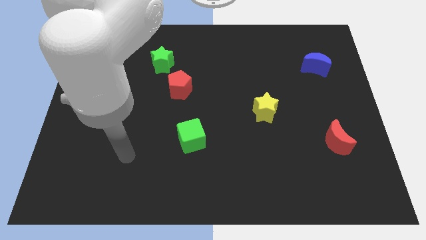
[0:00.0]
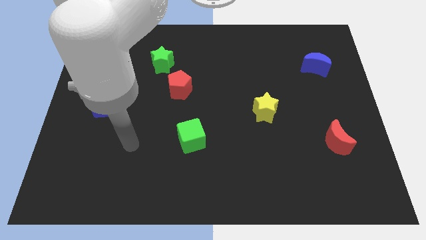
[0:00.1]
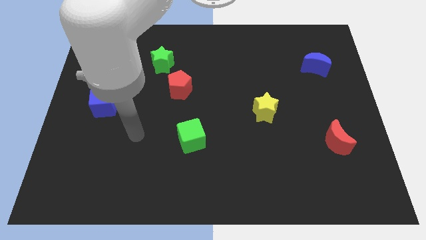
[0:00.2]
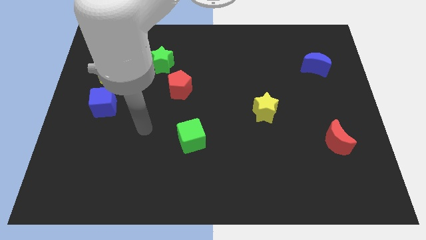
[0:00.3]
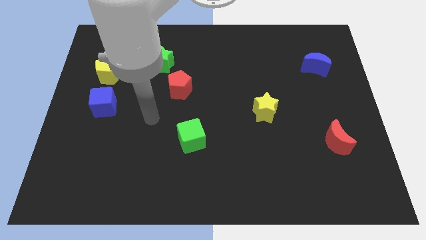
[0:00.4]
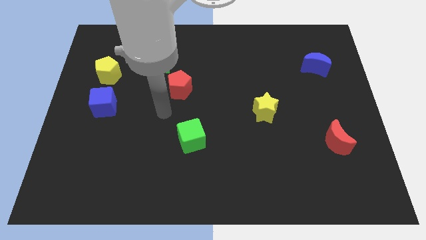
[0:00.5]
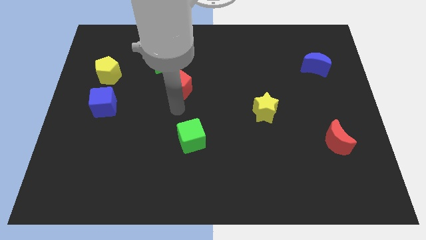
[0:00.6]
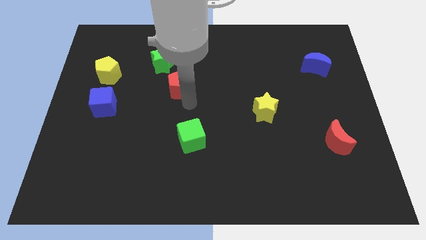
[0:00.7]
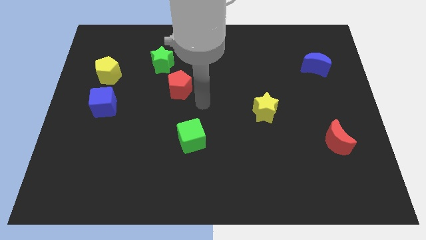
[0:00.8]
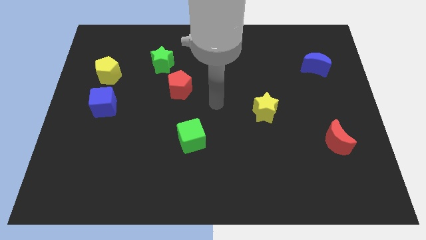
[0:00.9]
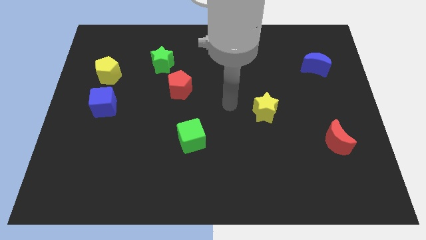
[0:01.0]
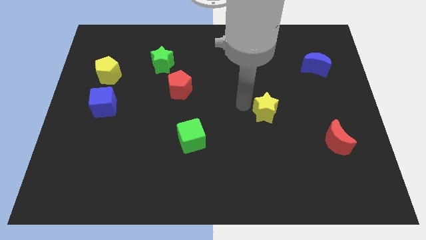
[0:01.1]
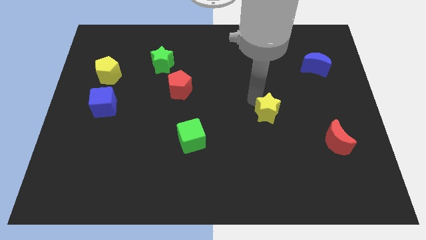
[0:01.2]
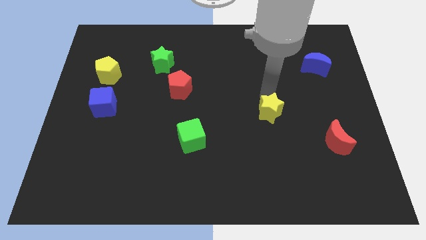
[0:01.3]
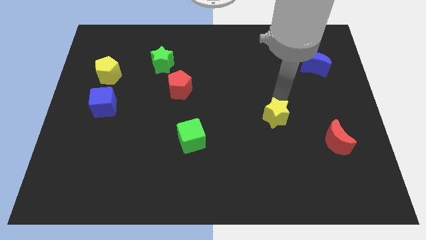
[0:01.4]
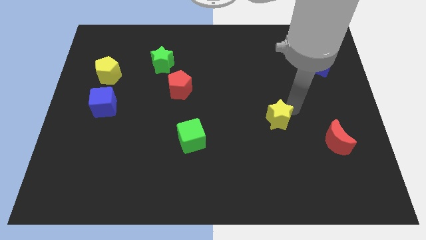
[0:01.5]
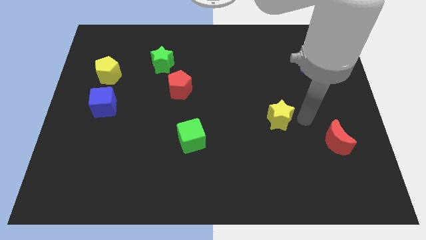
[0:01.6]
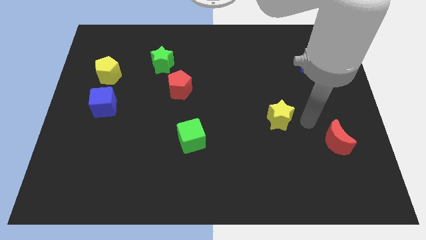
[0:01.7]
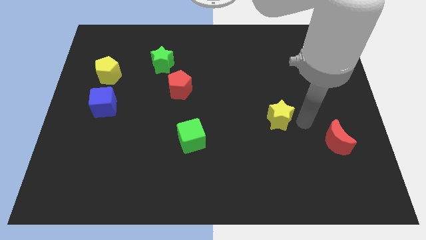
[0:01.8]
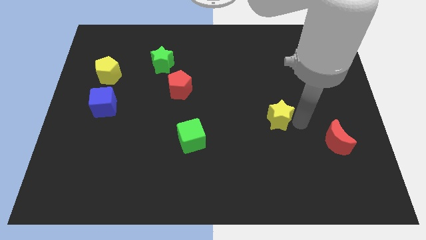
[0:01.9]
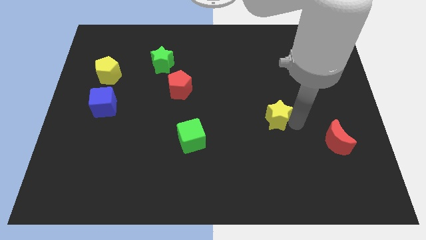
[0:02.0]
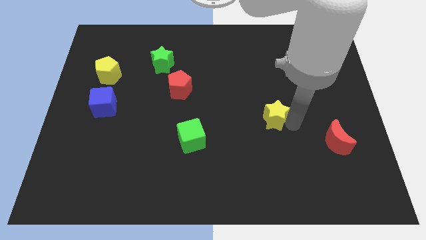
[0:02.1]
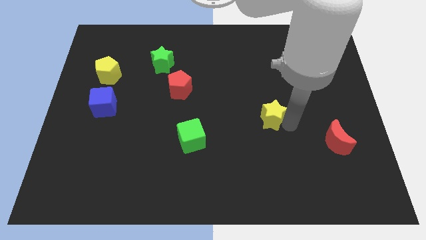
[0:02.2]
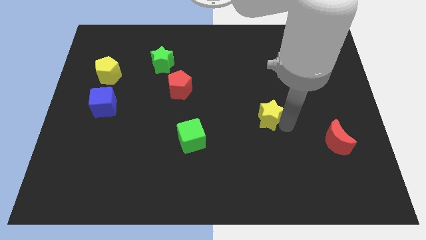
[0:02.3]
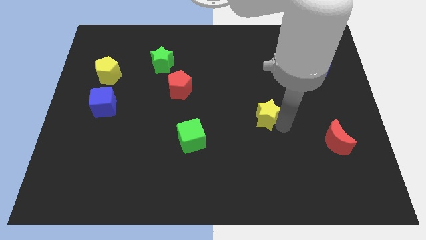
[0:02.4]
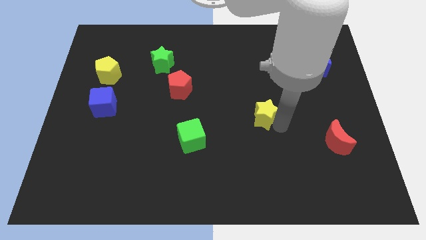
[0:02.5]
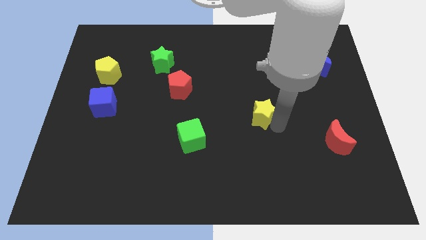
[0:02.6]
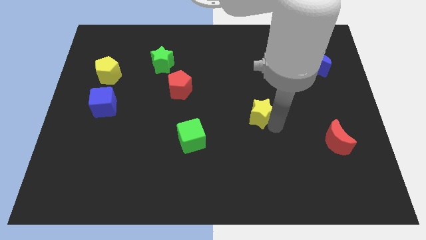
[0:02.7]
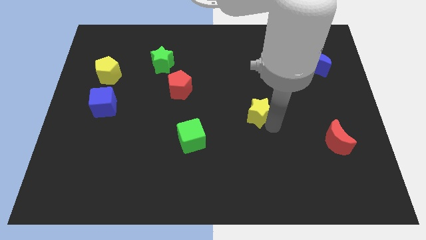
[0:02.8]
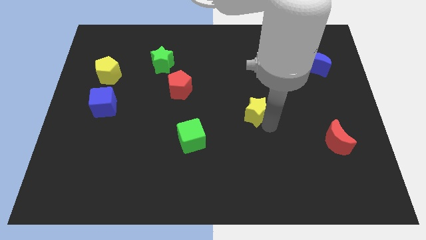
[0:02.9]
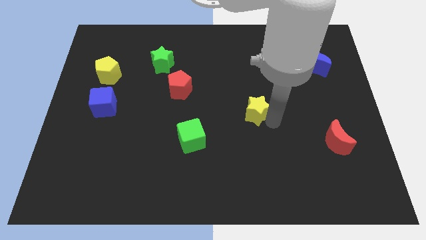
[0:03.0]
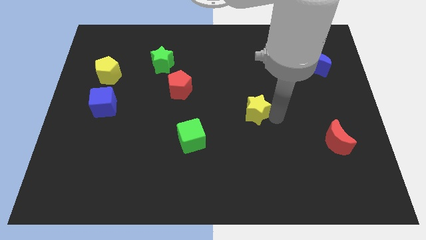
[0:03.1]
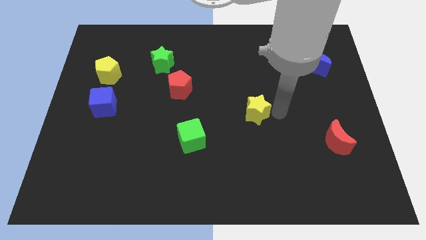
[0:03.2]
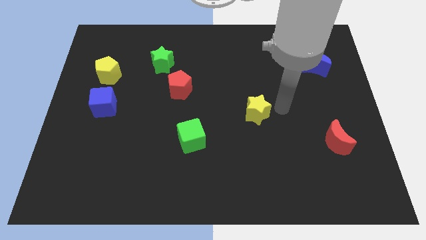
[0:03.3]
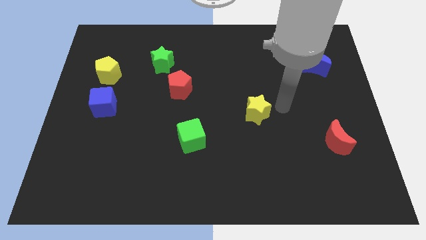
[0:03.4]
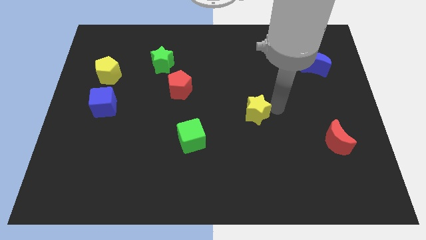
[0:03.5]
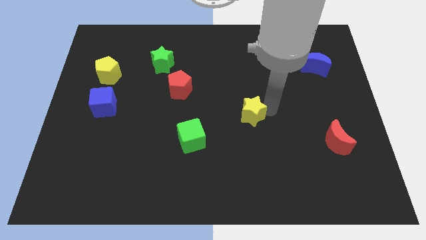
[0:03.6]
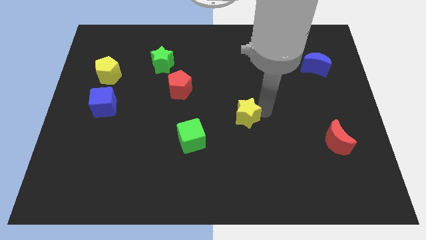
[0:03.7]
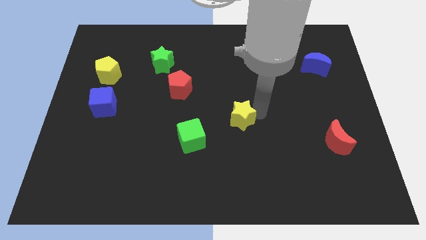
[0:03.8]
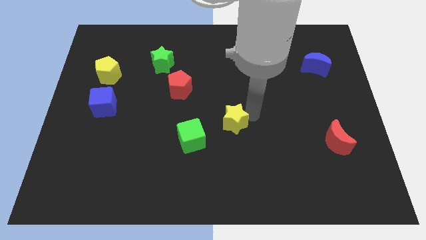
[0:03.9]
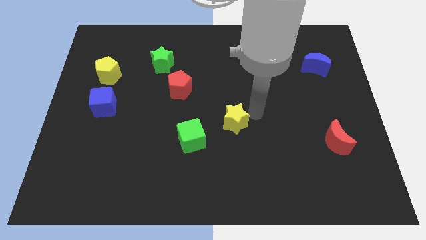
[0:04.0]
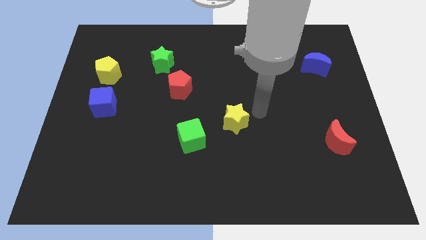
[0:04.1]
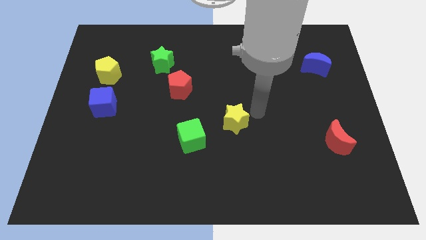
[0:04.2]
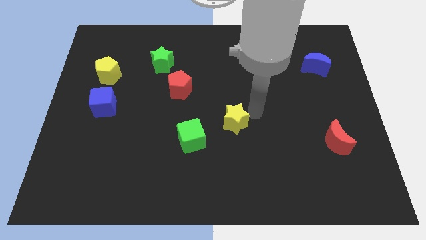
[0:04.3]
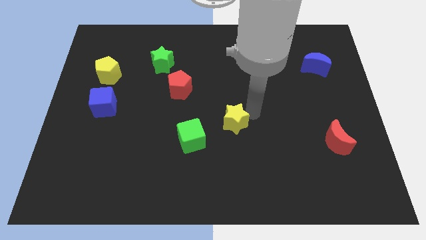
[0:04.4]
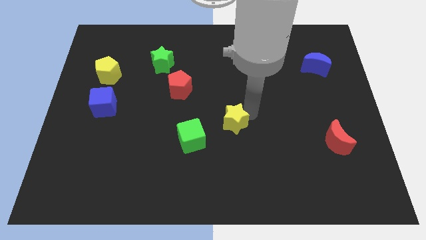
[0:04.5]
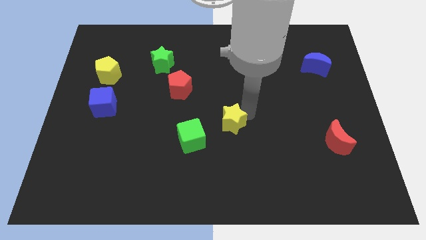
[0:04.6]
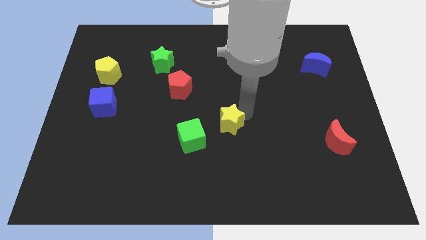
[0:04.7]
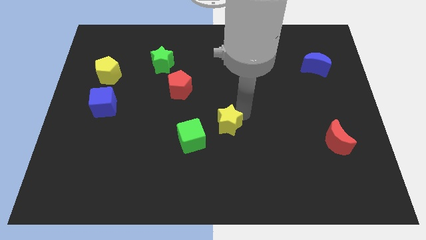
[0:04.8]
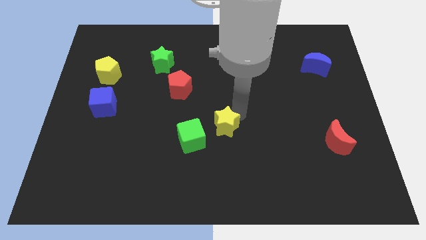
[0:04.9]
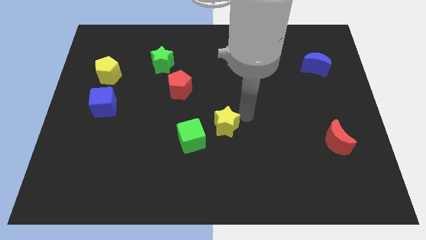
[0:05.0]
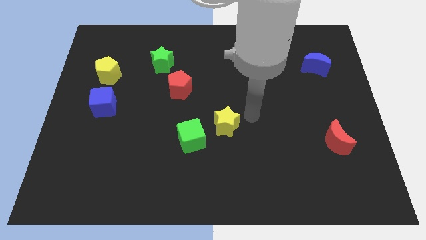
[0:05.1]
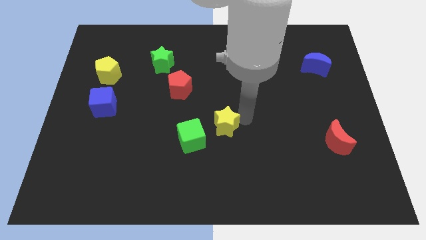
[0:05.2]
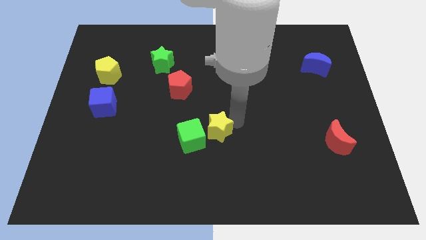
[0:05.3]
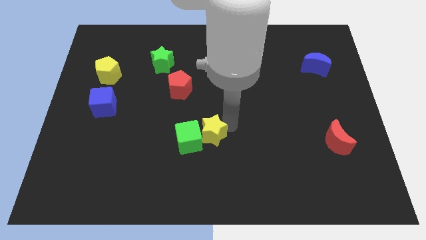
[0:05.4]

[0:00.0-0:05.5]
slide the yellow star to the green cube

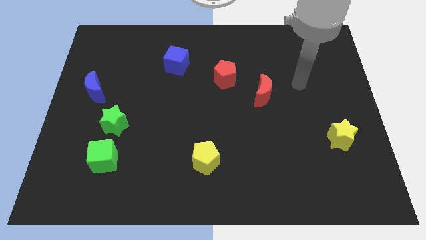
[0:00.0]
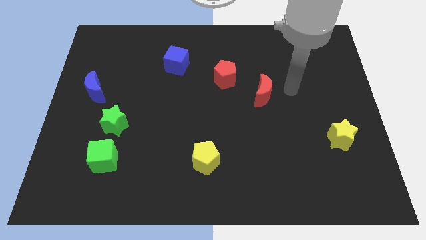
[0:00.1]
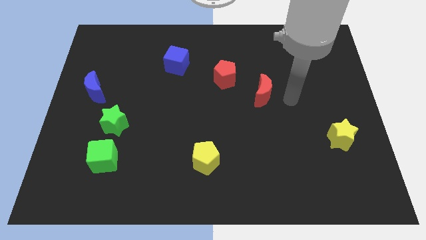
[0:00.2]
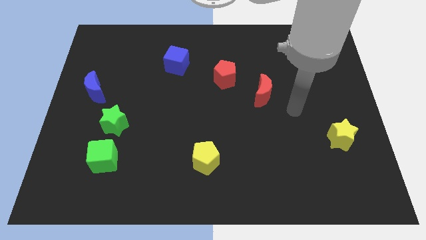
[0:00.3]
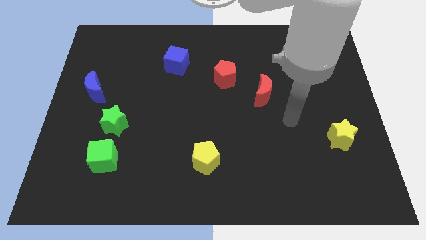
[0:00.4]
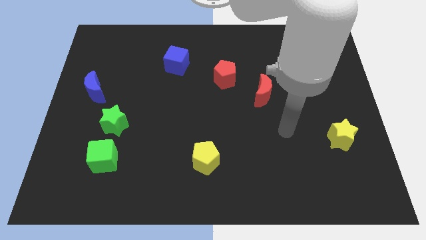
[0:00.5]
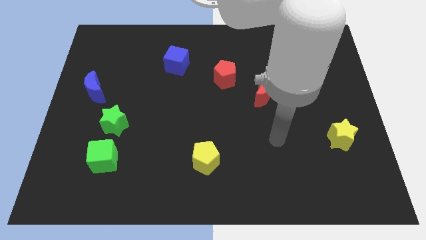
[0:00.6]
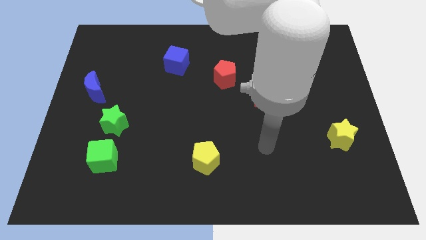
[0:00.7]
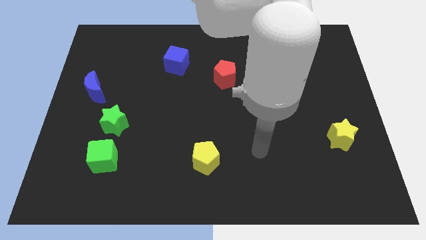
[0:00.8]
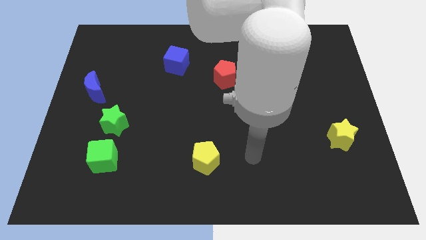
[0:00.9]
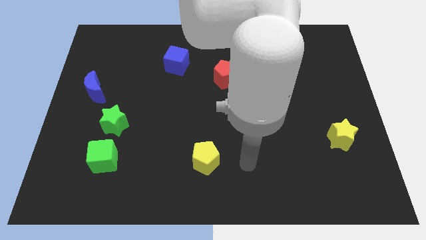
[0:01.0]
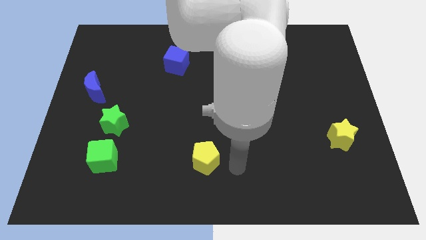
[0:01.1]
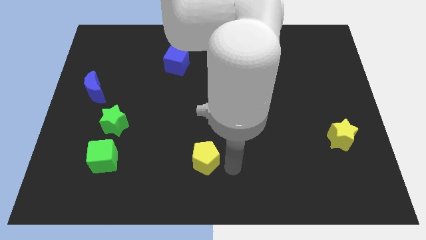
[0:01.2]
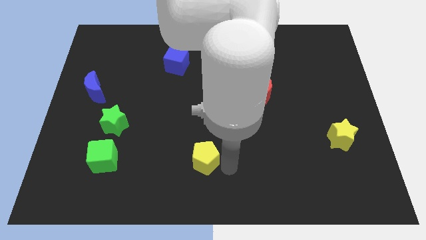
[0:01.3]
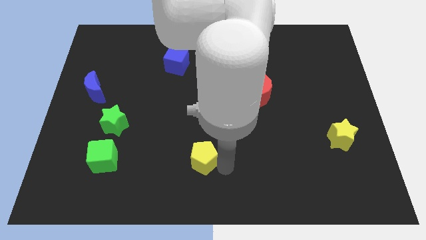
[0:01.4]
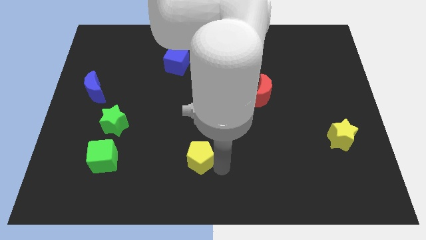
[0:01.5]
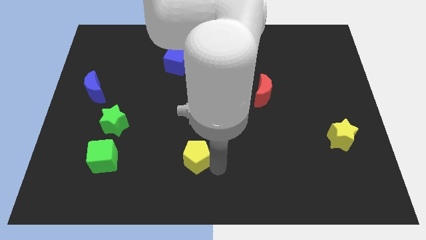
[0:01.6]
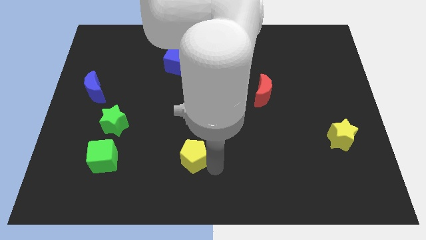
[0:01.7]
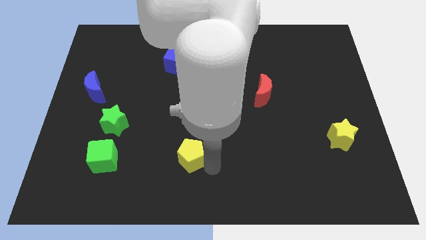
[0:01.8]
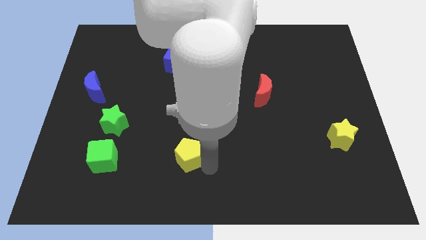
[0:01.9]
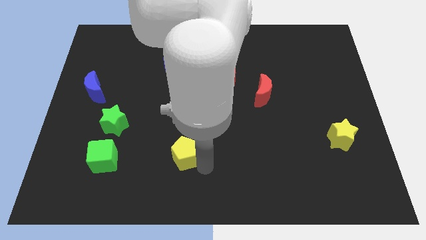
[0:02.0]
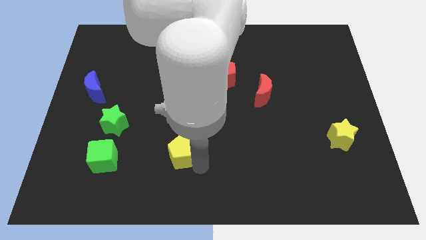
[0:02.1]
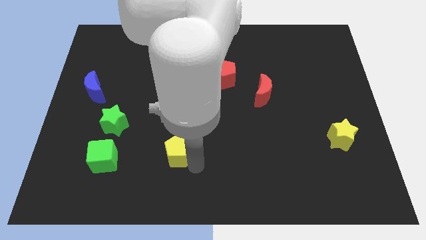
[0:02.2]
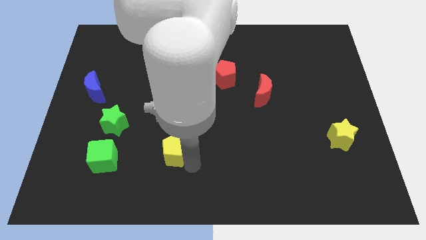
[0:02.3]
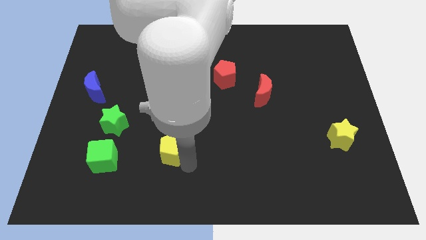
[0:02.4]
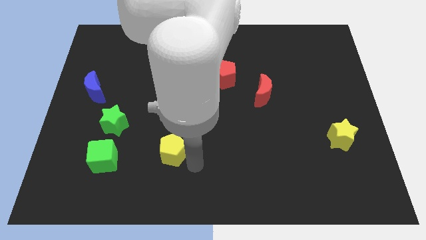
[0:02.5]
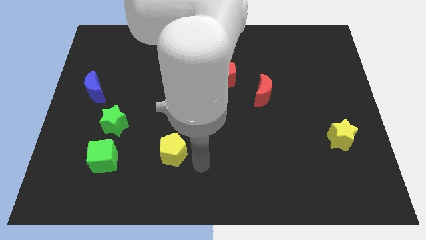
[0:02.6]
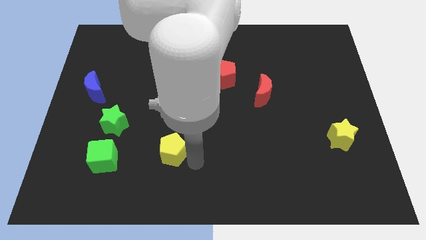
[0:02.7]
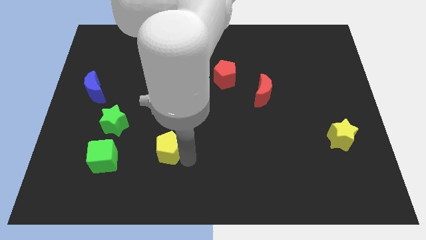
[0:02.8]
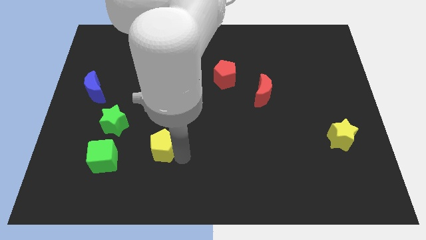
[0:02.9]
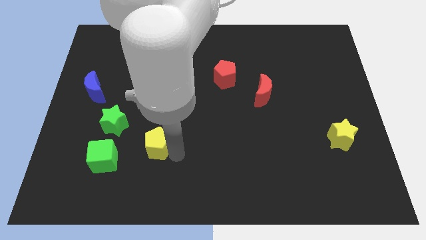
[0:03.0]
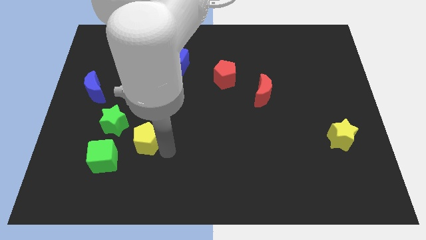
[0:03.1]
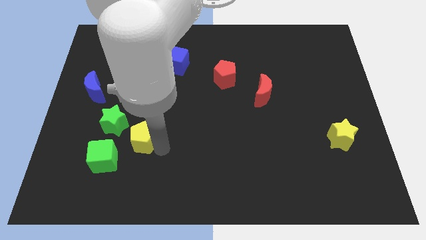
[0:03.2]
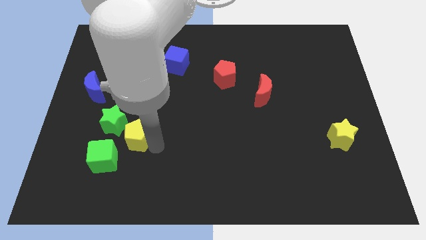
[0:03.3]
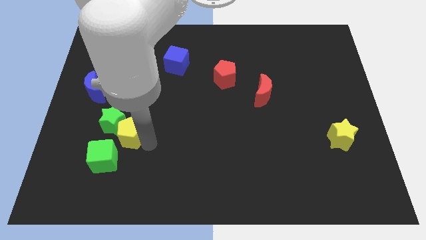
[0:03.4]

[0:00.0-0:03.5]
move the yellow pentagon towards the green star
